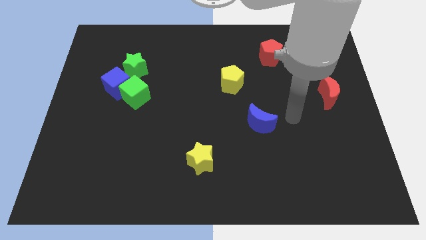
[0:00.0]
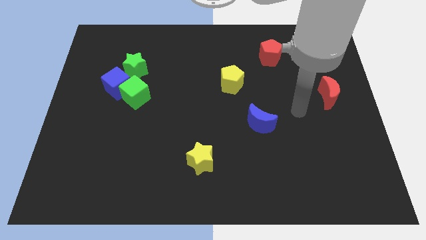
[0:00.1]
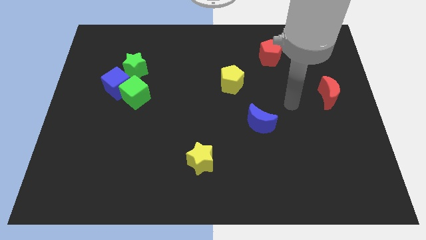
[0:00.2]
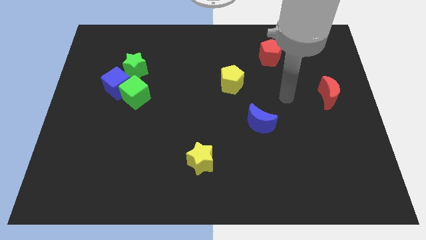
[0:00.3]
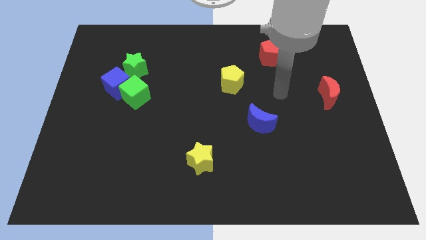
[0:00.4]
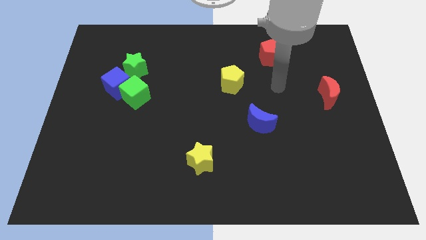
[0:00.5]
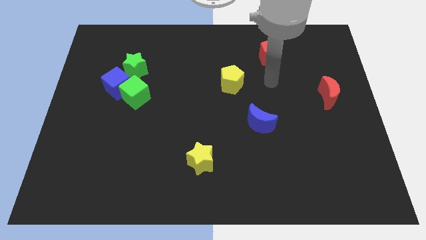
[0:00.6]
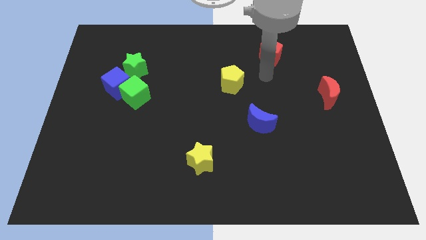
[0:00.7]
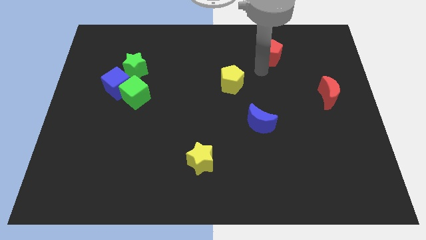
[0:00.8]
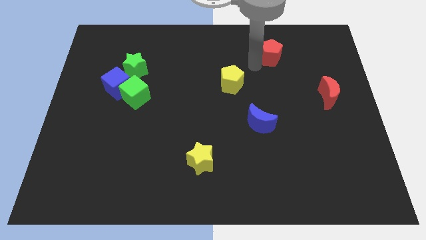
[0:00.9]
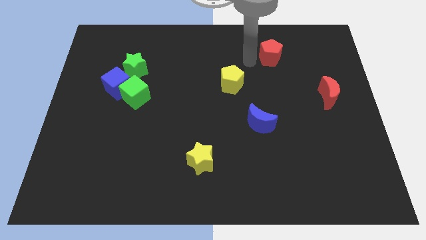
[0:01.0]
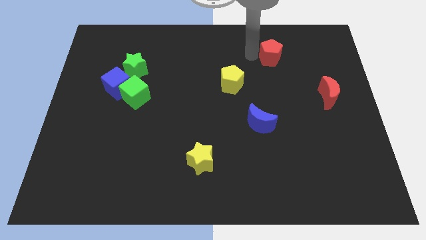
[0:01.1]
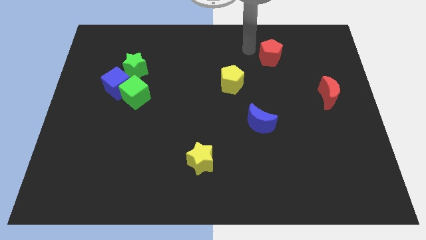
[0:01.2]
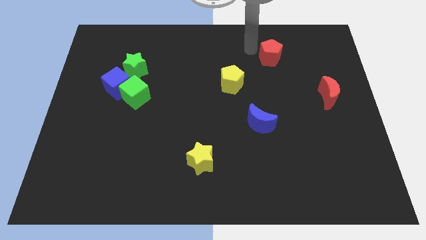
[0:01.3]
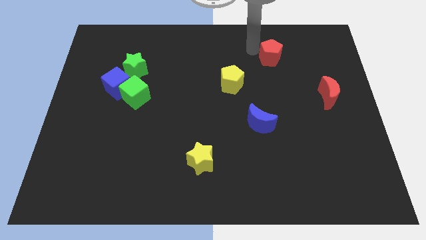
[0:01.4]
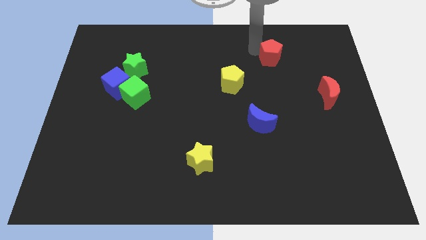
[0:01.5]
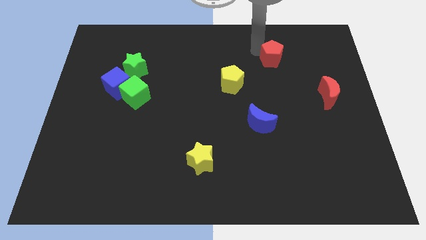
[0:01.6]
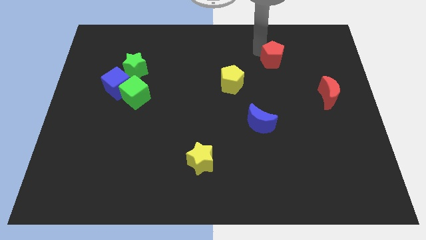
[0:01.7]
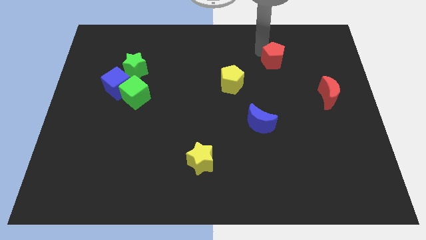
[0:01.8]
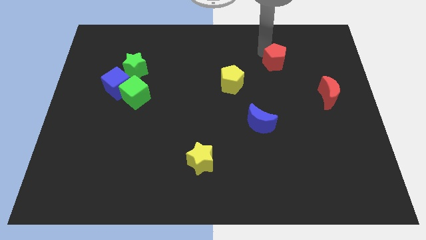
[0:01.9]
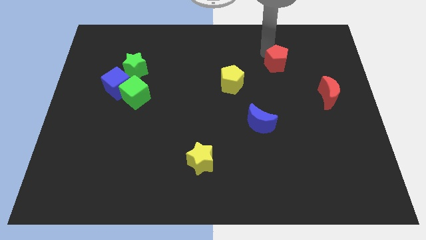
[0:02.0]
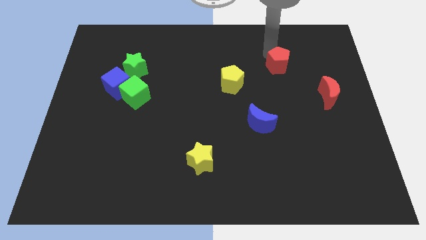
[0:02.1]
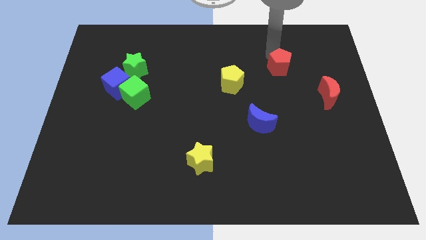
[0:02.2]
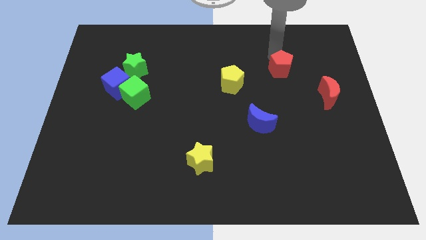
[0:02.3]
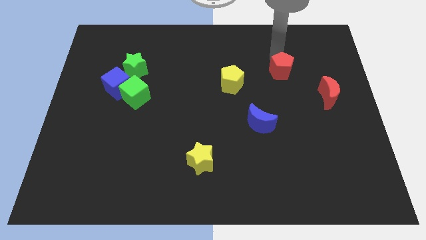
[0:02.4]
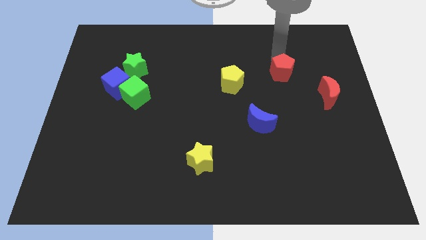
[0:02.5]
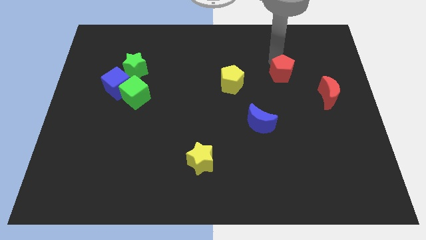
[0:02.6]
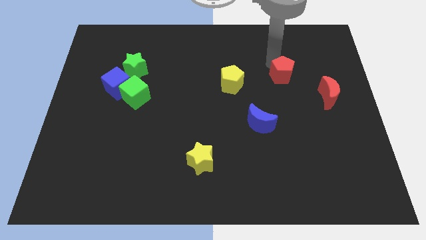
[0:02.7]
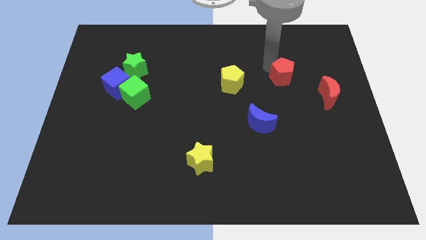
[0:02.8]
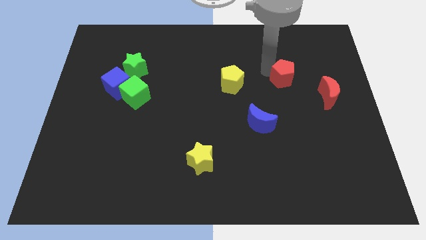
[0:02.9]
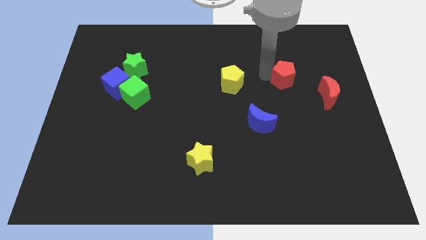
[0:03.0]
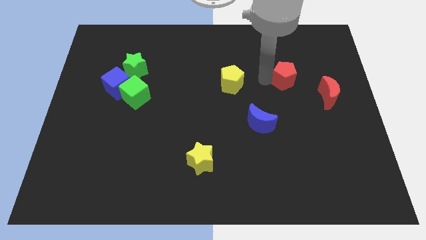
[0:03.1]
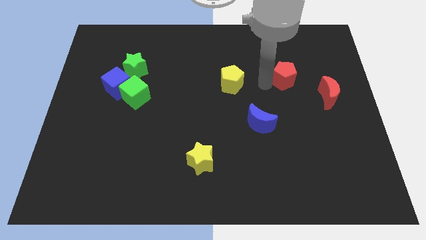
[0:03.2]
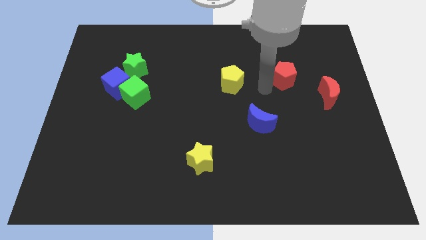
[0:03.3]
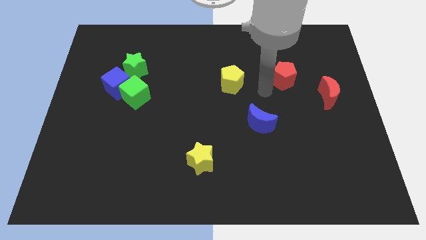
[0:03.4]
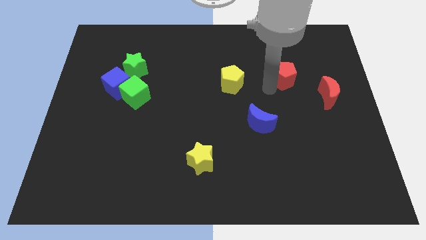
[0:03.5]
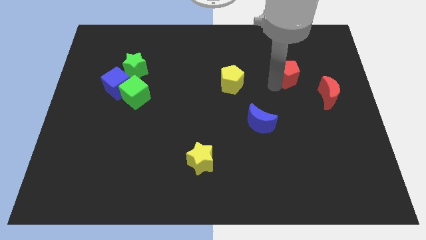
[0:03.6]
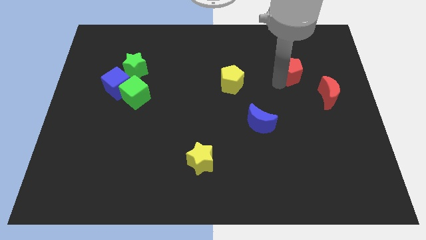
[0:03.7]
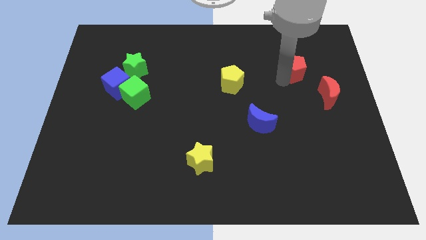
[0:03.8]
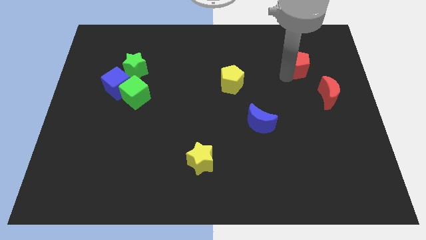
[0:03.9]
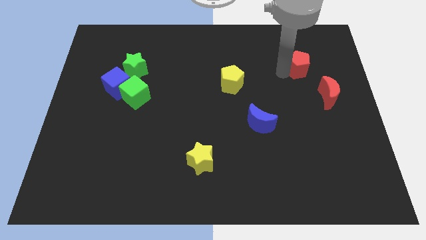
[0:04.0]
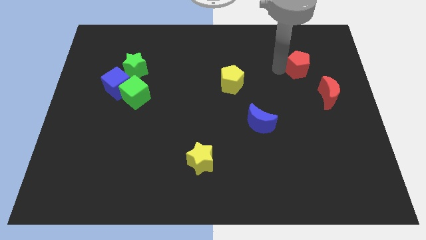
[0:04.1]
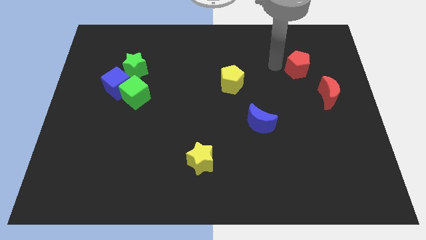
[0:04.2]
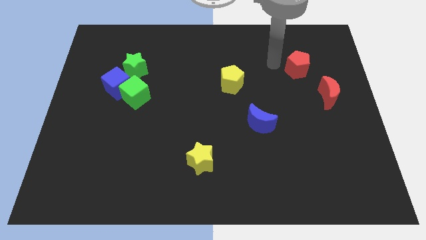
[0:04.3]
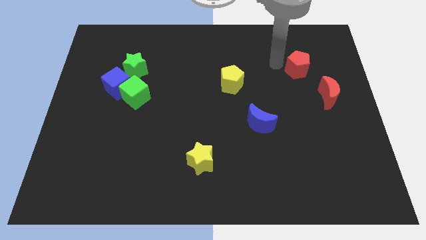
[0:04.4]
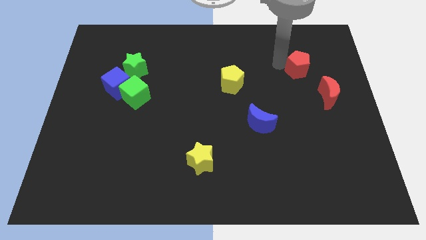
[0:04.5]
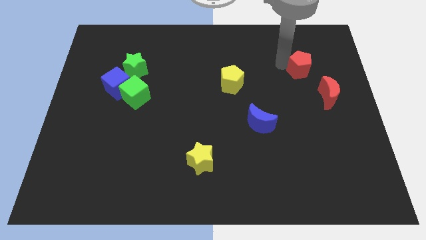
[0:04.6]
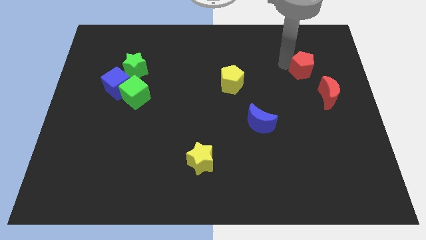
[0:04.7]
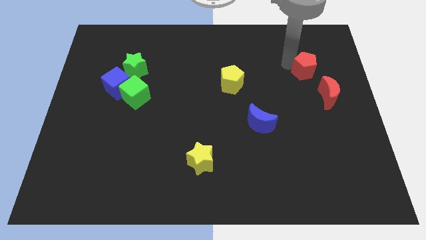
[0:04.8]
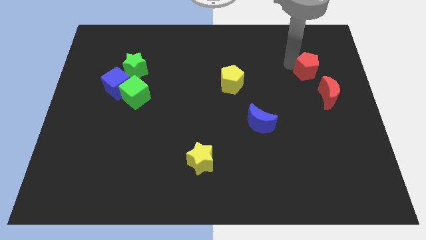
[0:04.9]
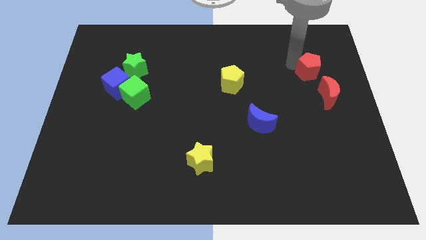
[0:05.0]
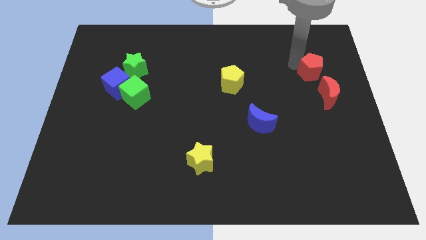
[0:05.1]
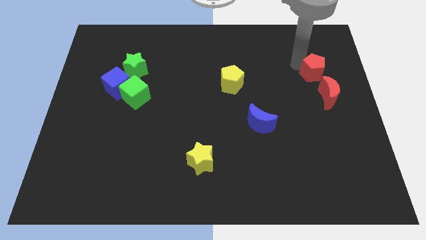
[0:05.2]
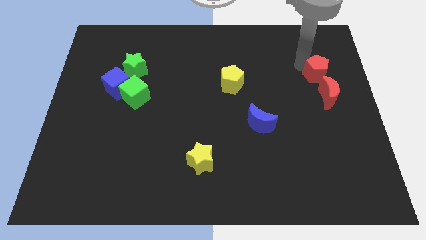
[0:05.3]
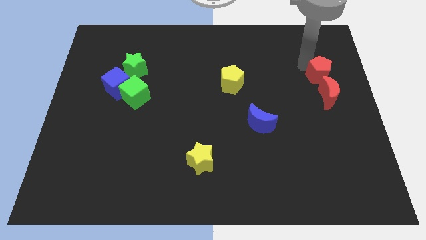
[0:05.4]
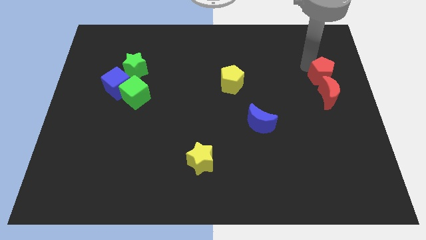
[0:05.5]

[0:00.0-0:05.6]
put the red pentagon to the center right

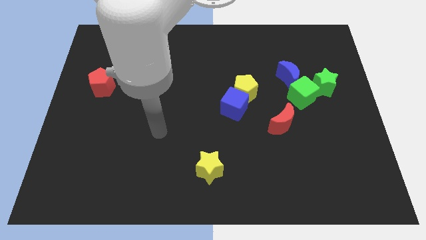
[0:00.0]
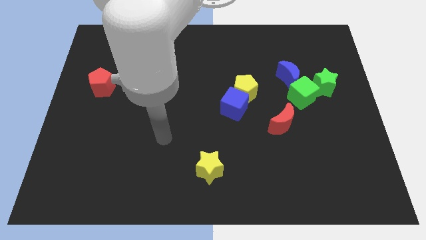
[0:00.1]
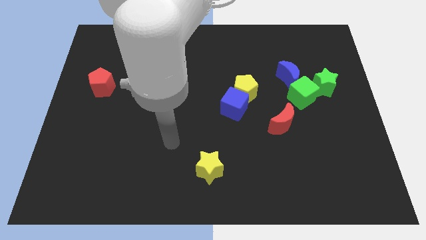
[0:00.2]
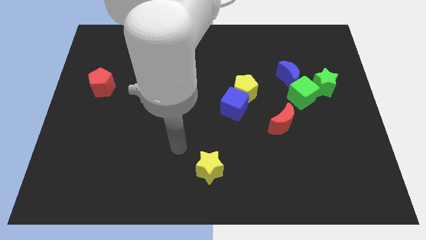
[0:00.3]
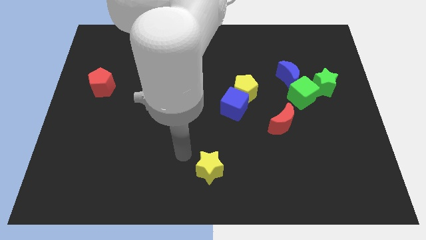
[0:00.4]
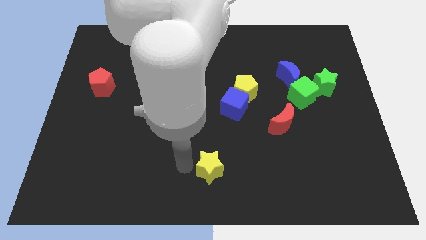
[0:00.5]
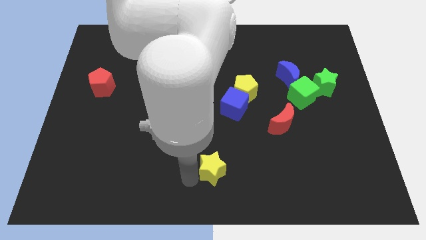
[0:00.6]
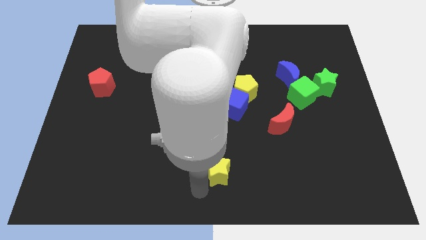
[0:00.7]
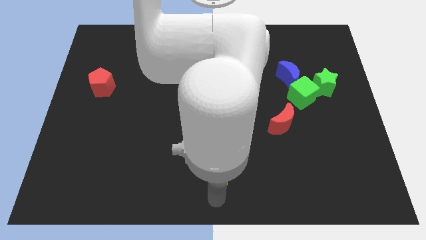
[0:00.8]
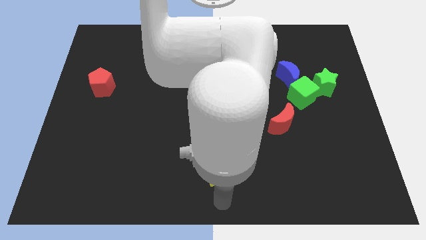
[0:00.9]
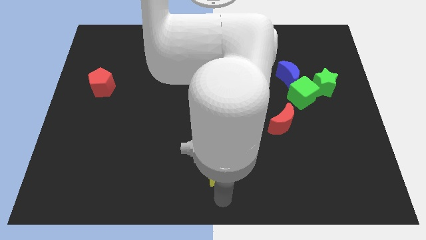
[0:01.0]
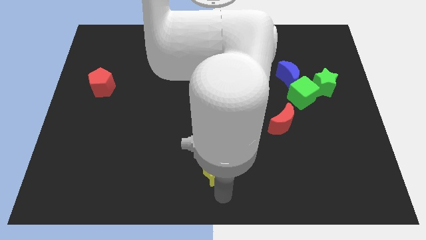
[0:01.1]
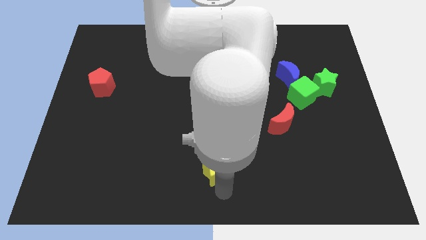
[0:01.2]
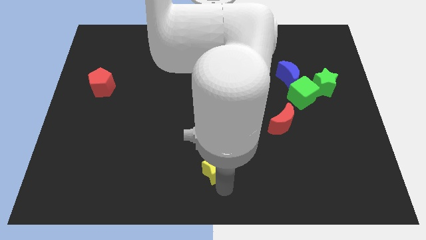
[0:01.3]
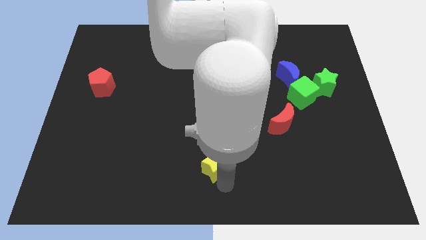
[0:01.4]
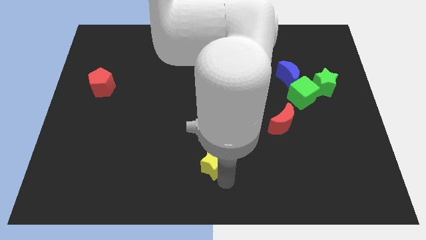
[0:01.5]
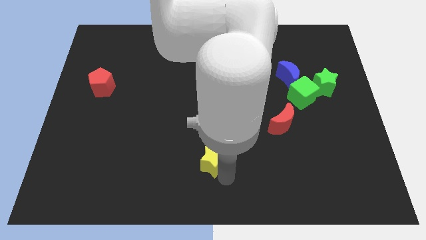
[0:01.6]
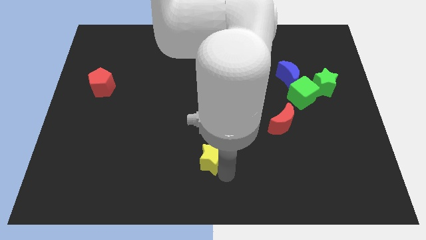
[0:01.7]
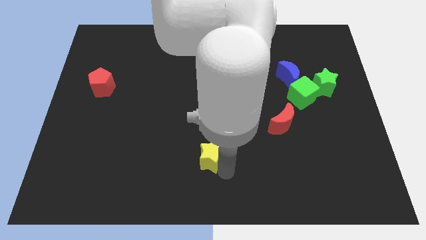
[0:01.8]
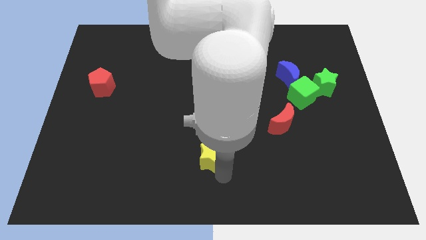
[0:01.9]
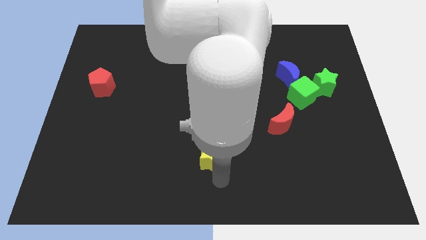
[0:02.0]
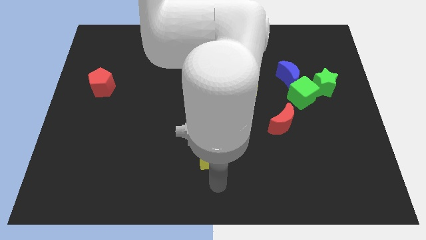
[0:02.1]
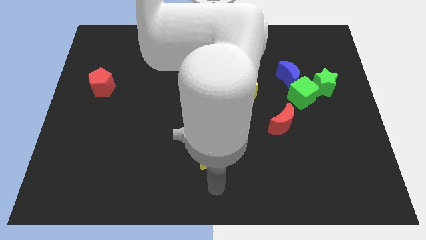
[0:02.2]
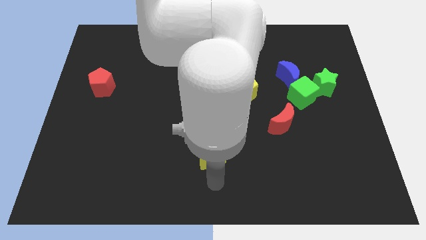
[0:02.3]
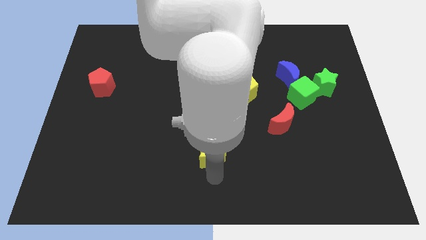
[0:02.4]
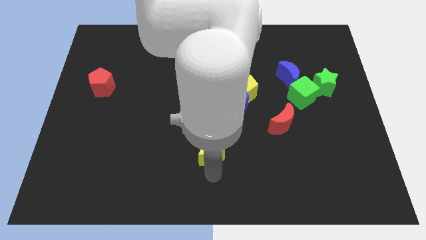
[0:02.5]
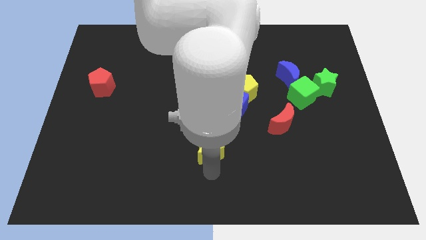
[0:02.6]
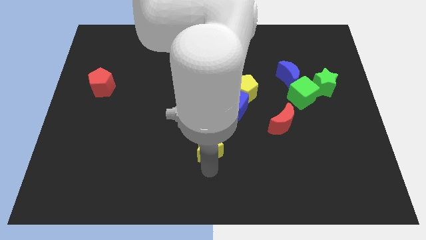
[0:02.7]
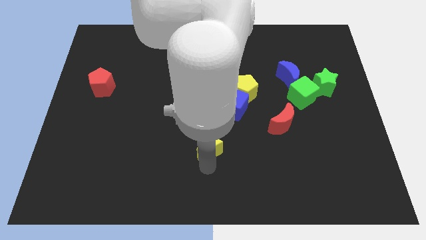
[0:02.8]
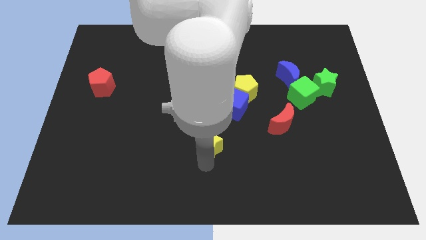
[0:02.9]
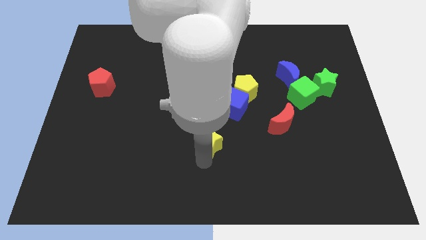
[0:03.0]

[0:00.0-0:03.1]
put the yellow star to the middle
